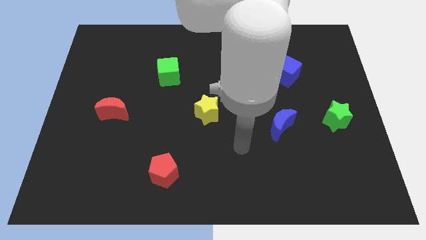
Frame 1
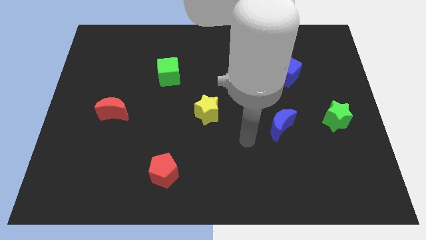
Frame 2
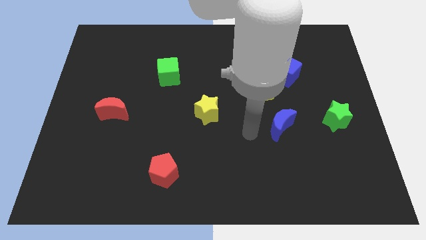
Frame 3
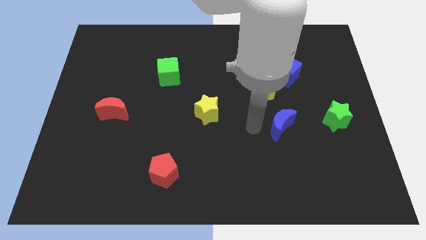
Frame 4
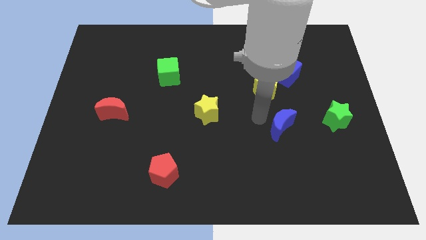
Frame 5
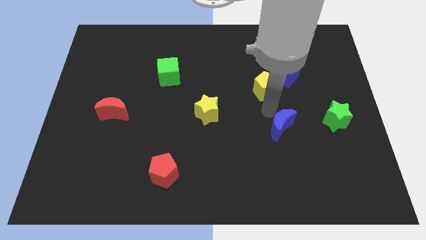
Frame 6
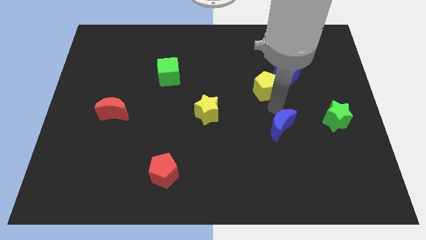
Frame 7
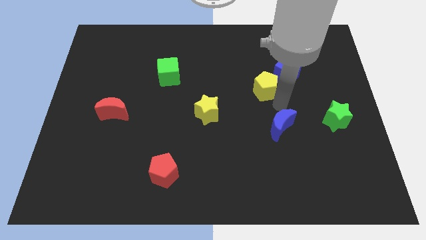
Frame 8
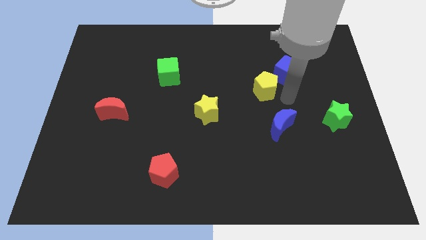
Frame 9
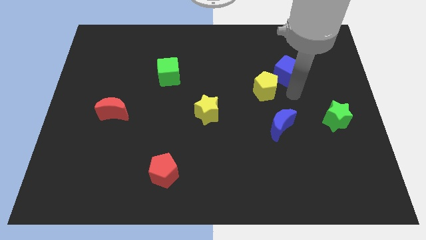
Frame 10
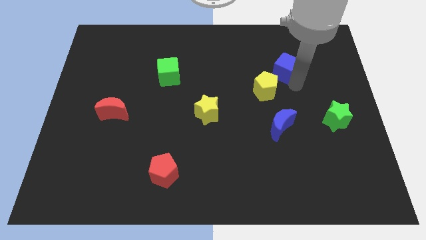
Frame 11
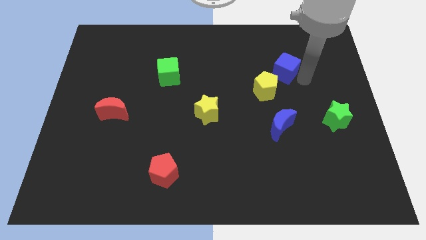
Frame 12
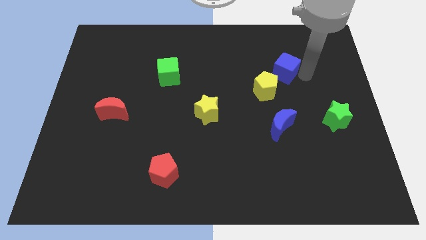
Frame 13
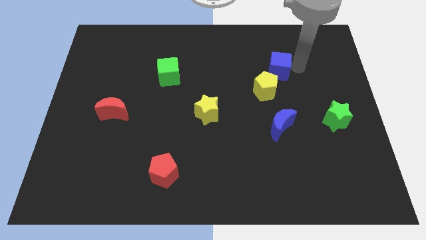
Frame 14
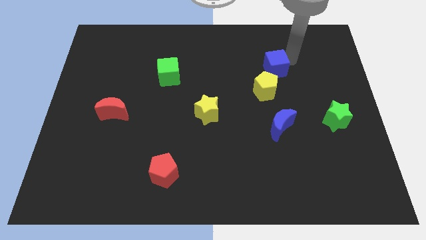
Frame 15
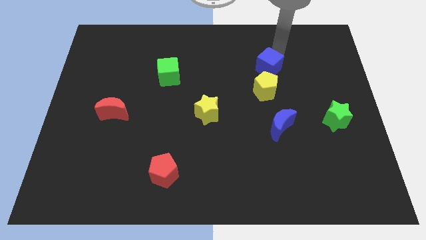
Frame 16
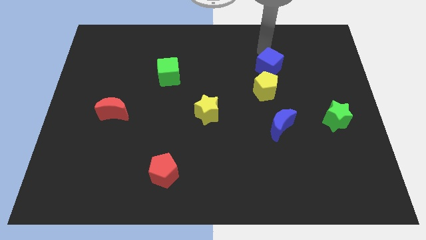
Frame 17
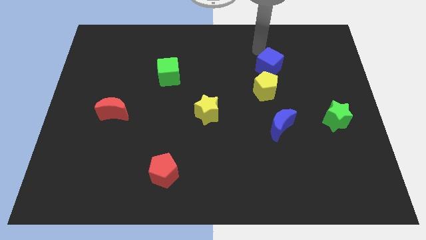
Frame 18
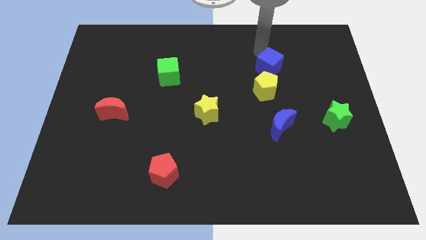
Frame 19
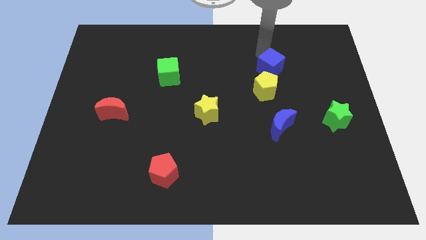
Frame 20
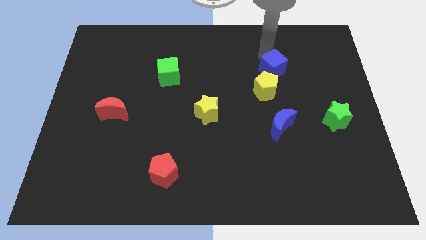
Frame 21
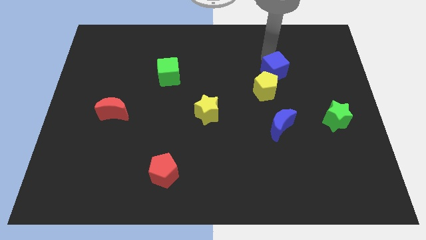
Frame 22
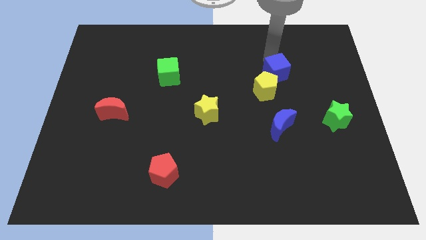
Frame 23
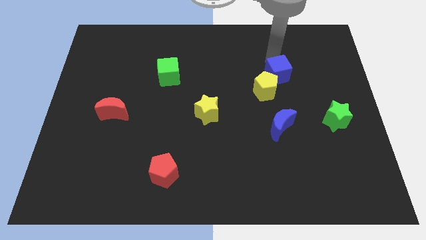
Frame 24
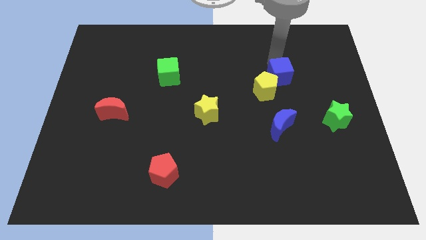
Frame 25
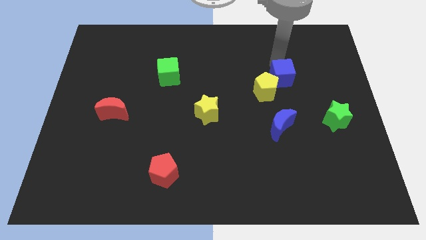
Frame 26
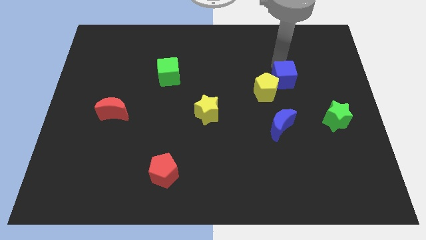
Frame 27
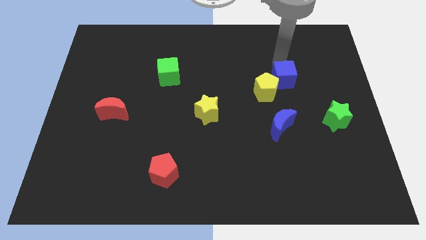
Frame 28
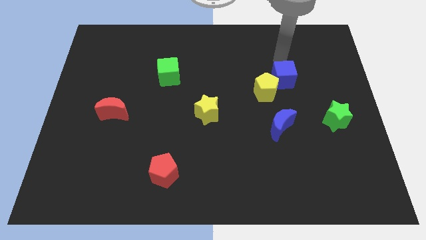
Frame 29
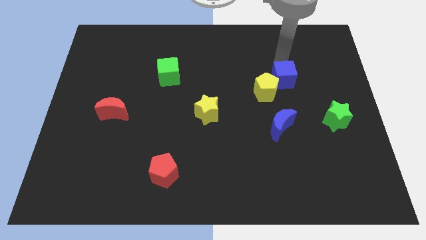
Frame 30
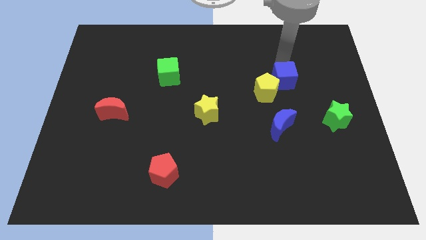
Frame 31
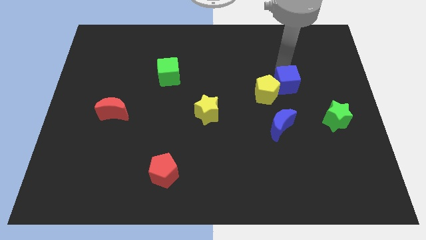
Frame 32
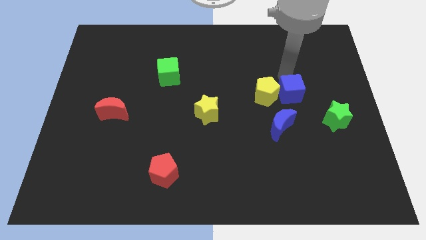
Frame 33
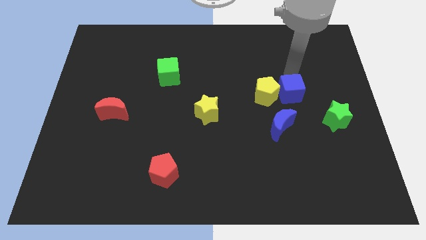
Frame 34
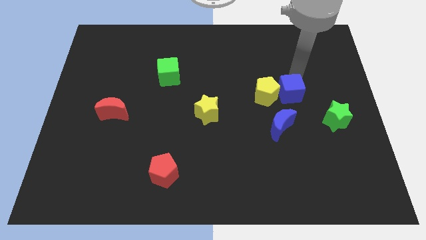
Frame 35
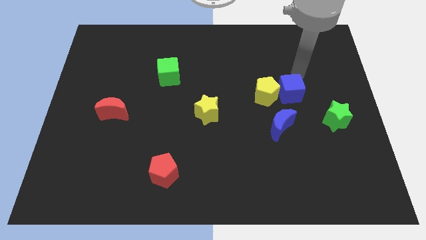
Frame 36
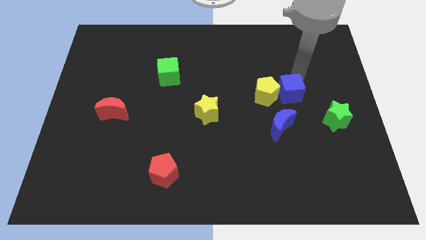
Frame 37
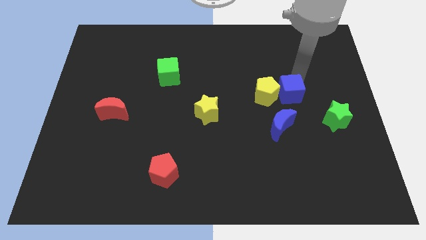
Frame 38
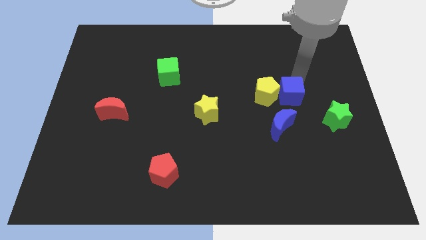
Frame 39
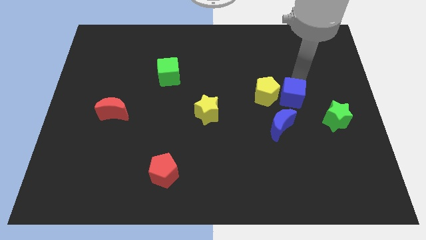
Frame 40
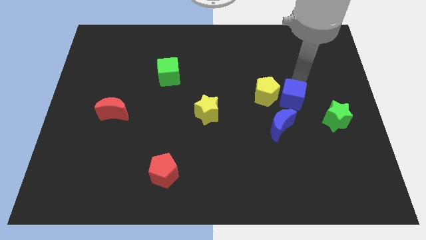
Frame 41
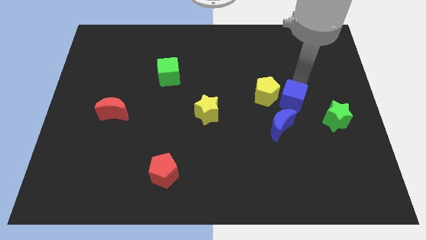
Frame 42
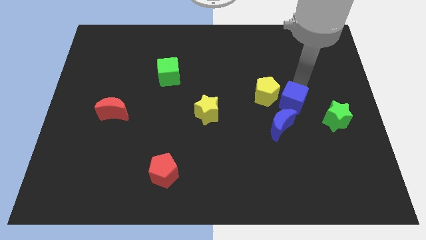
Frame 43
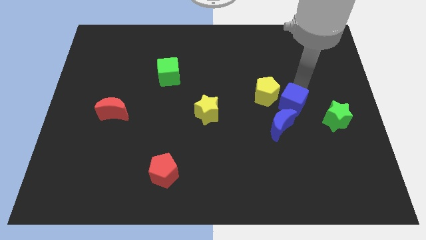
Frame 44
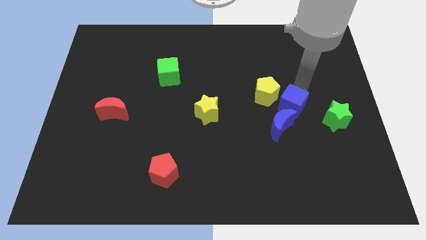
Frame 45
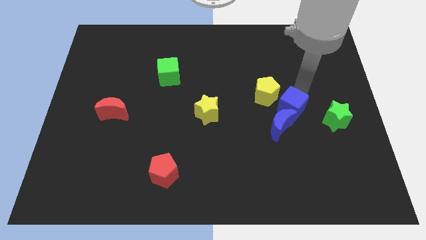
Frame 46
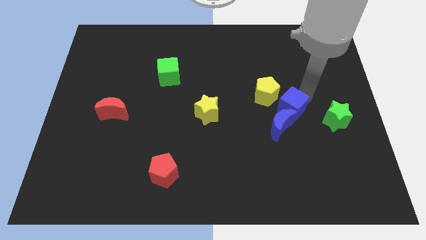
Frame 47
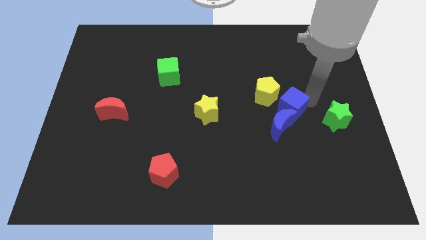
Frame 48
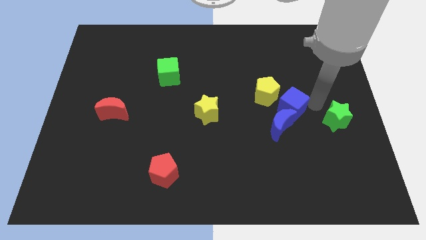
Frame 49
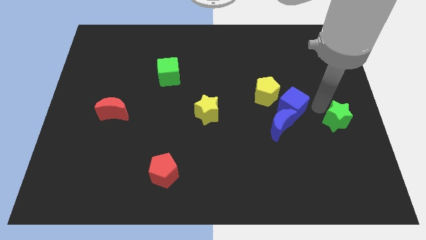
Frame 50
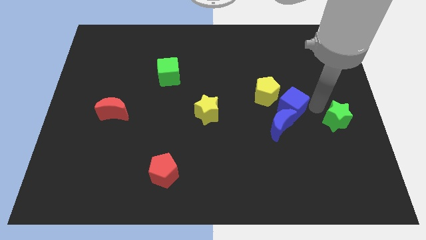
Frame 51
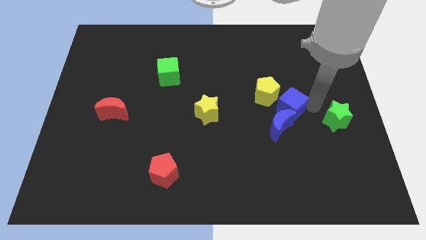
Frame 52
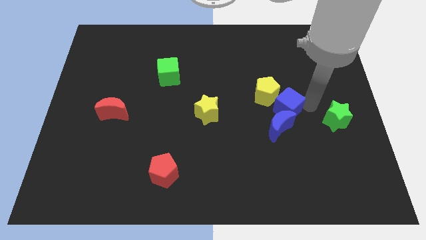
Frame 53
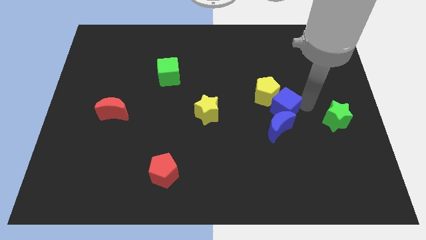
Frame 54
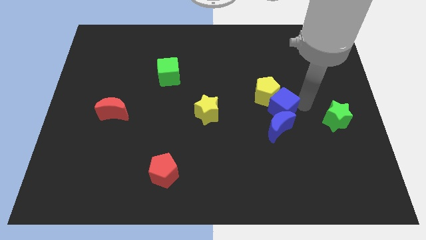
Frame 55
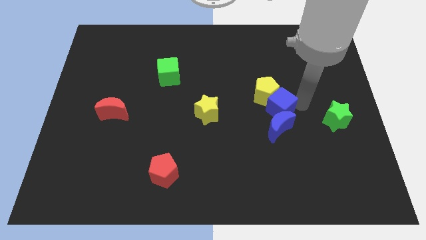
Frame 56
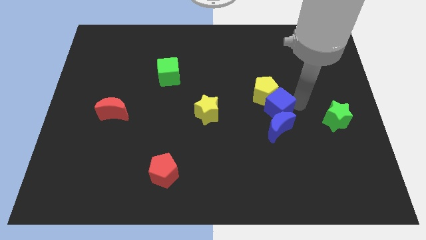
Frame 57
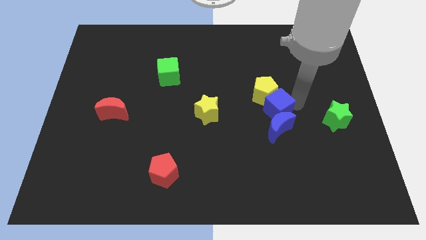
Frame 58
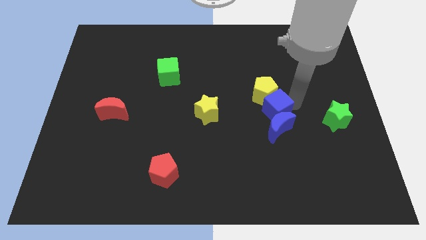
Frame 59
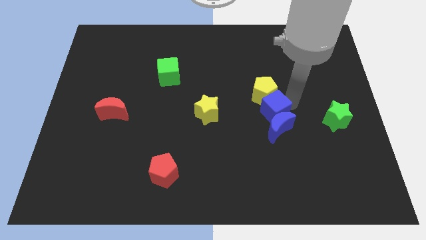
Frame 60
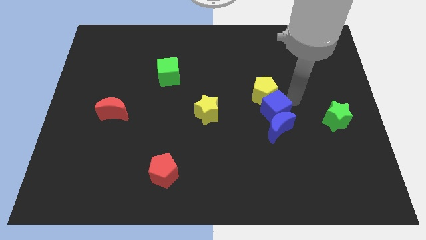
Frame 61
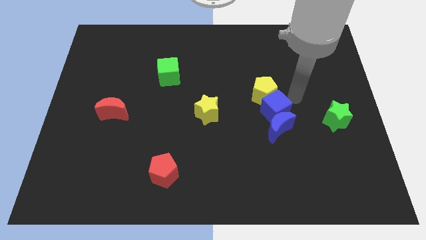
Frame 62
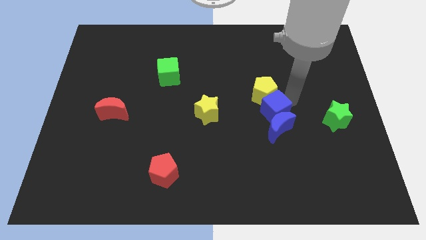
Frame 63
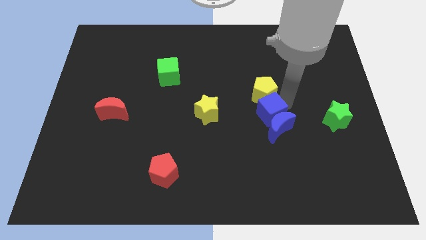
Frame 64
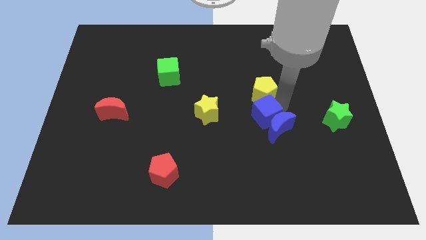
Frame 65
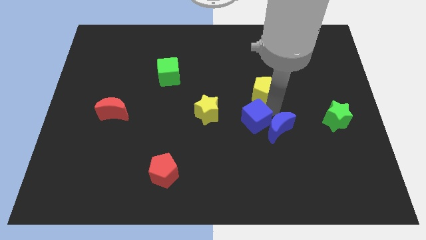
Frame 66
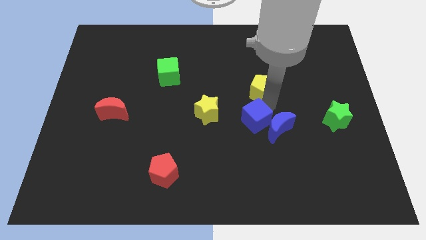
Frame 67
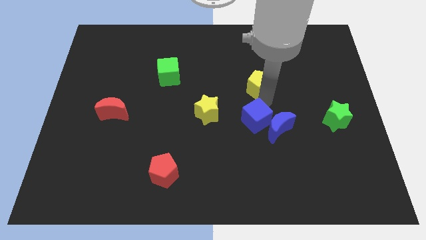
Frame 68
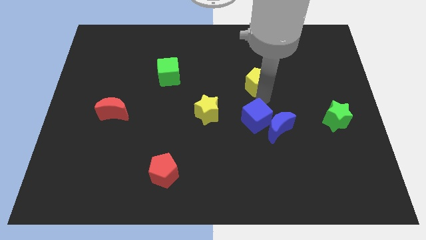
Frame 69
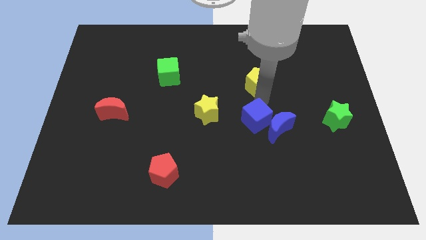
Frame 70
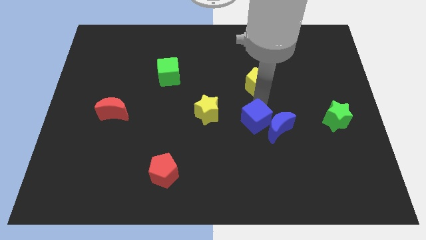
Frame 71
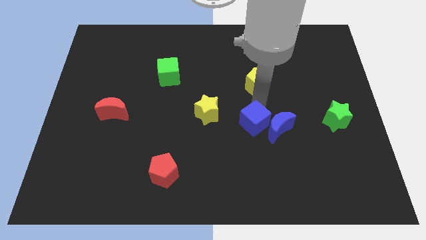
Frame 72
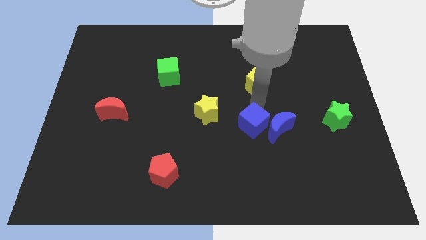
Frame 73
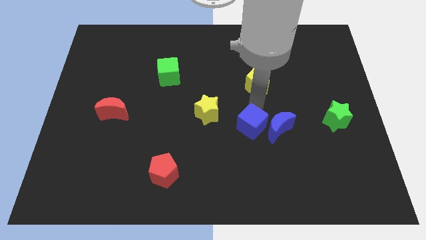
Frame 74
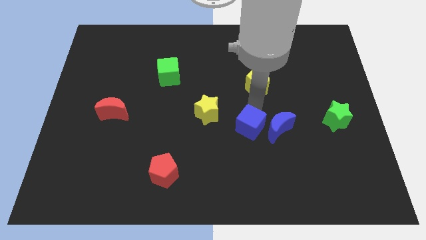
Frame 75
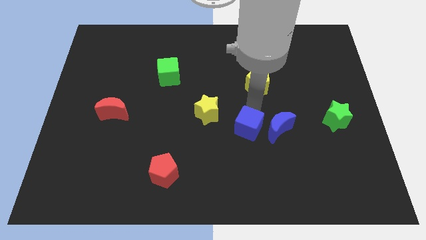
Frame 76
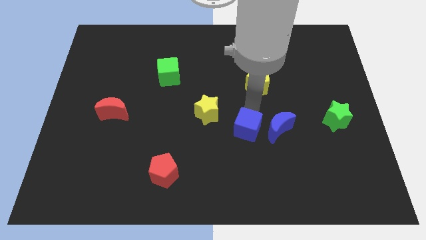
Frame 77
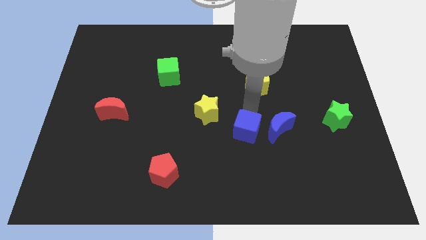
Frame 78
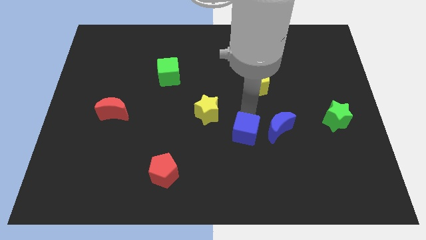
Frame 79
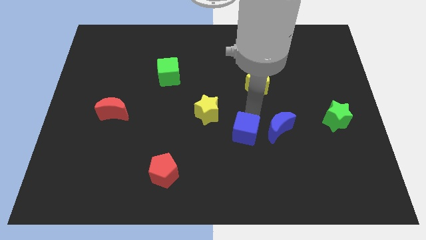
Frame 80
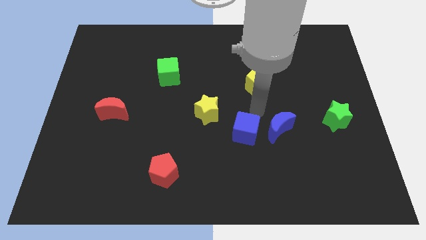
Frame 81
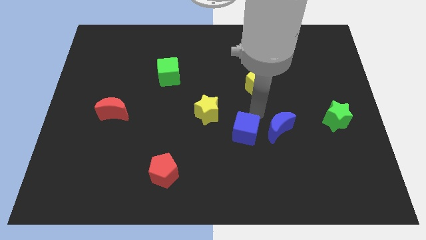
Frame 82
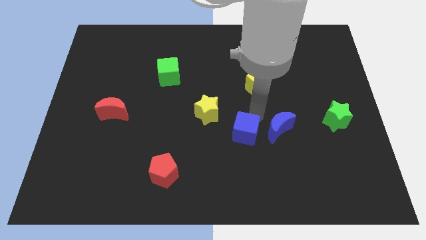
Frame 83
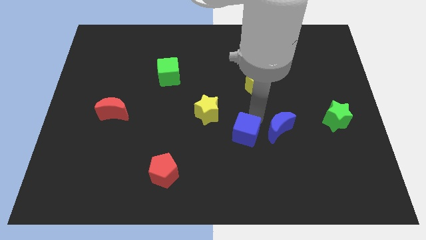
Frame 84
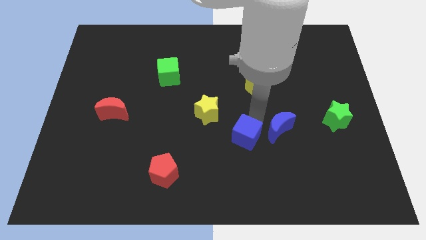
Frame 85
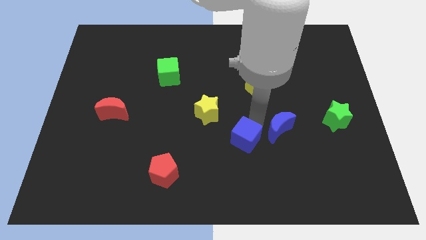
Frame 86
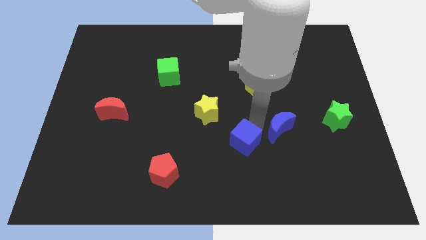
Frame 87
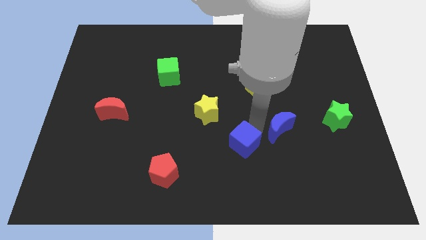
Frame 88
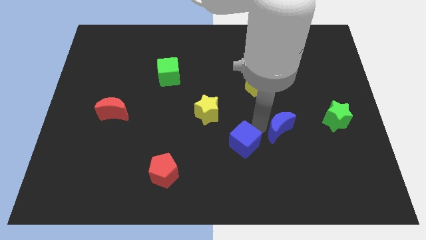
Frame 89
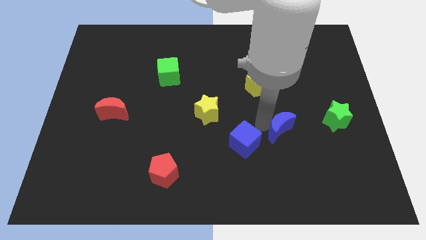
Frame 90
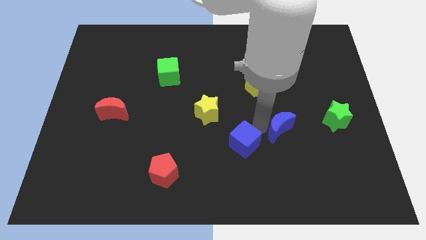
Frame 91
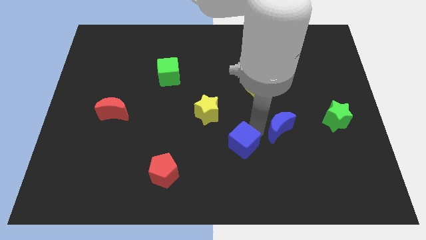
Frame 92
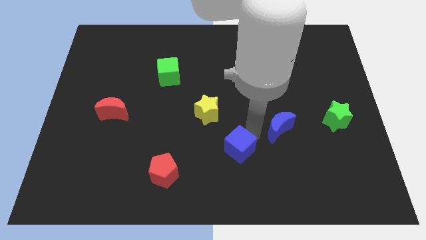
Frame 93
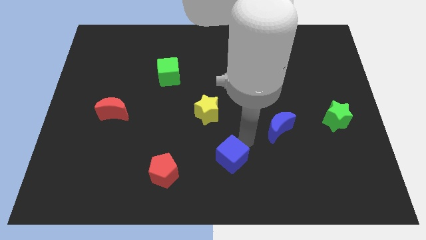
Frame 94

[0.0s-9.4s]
slide the blue cube just right of the red pentagon
